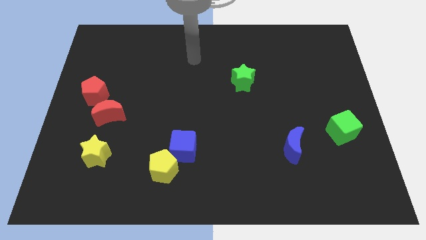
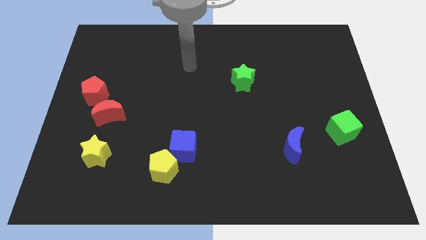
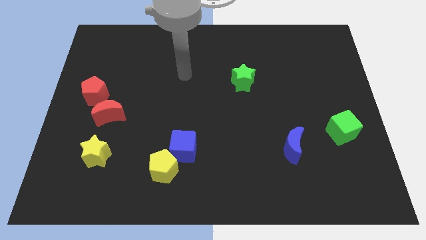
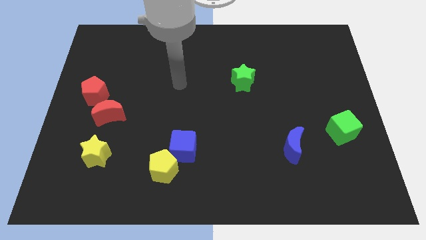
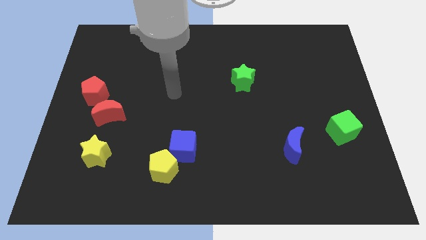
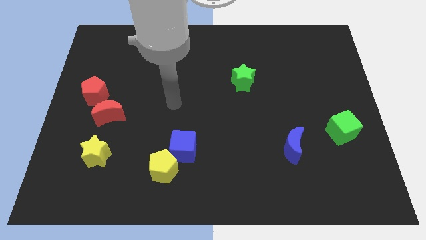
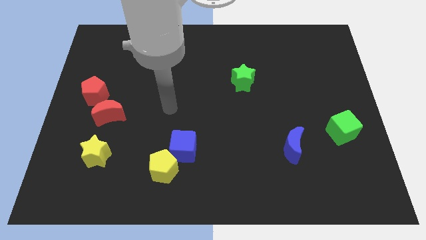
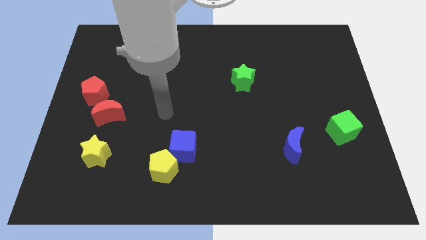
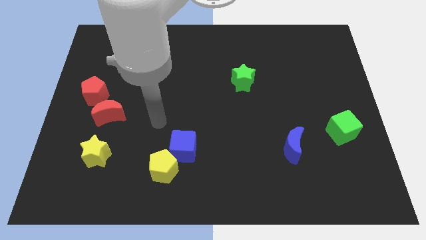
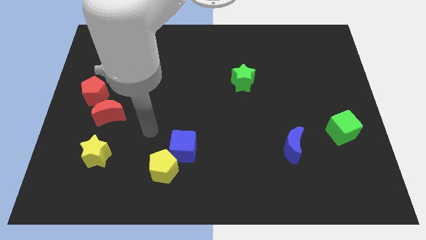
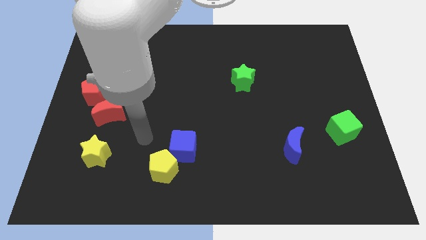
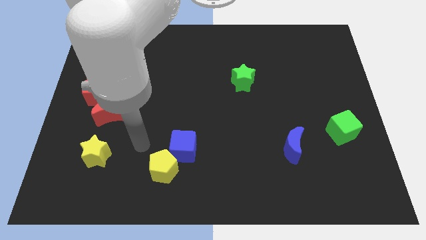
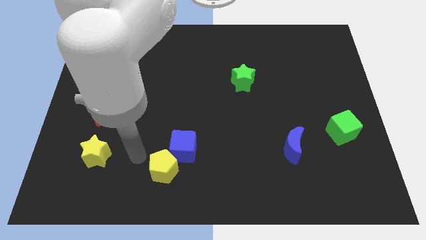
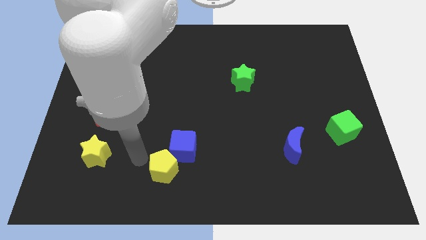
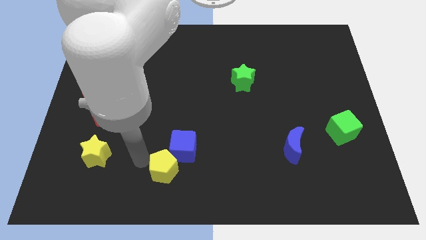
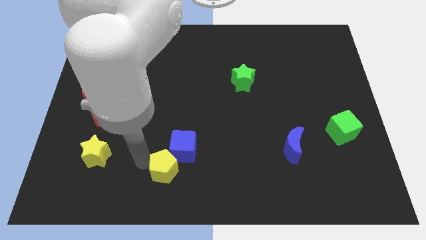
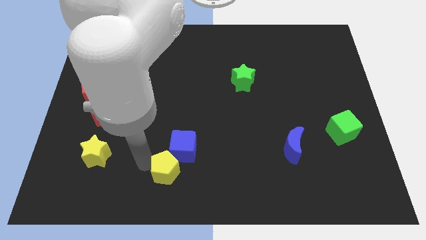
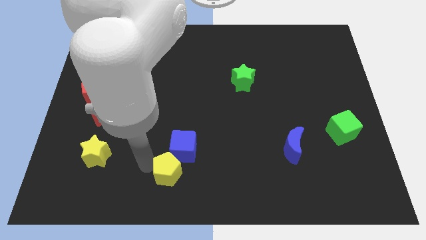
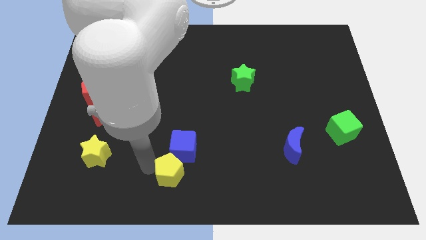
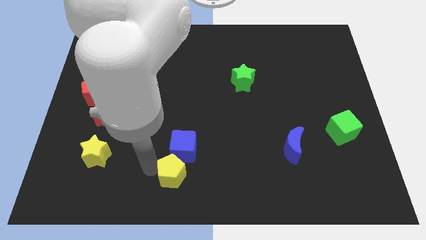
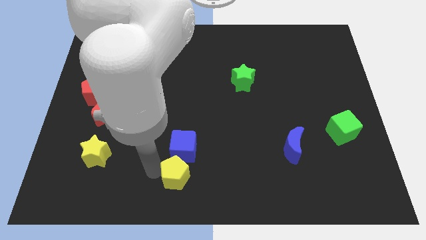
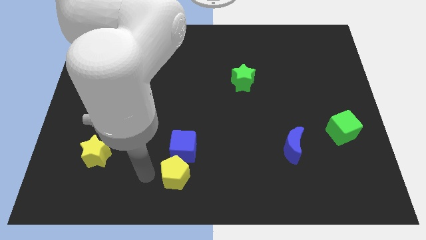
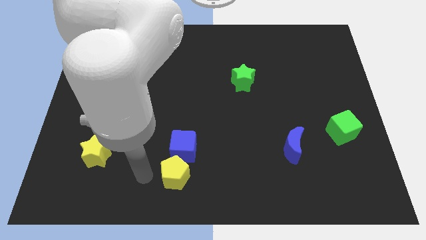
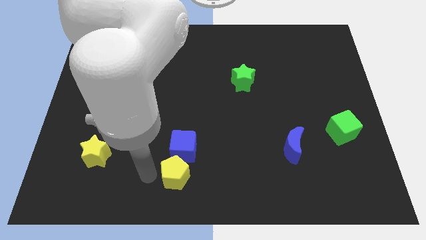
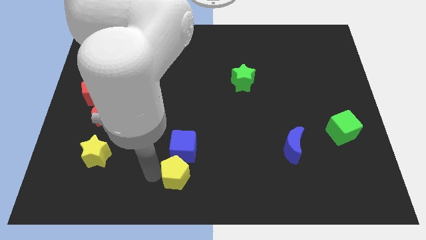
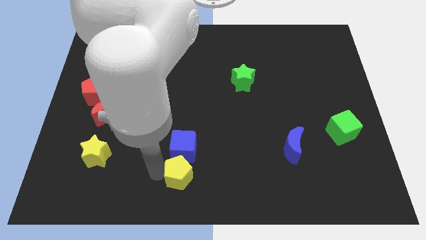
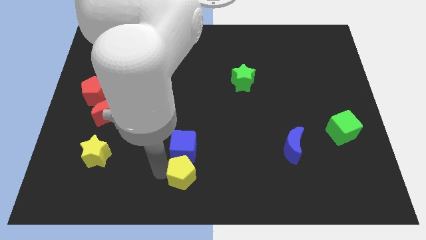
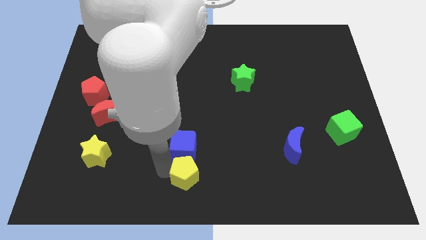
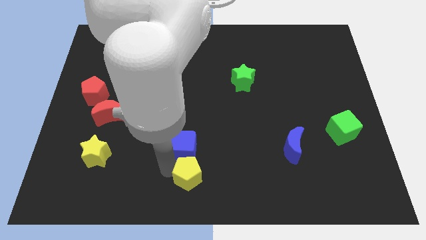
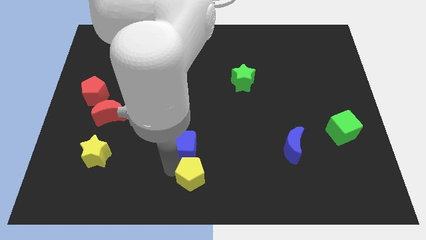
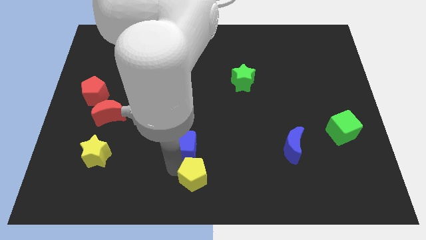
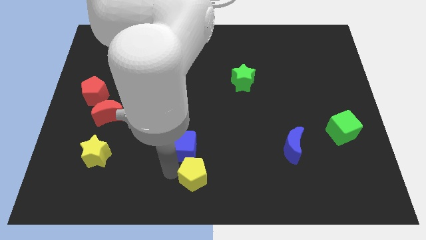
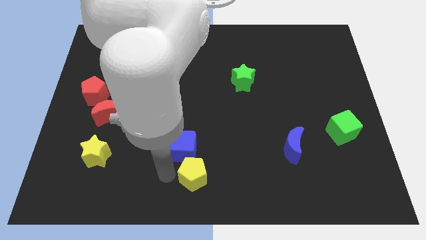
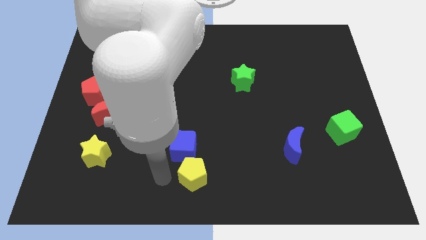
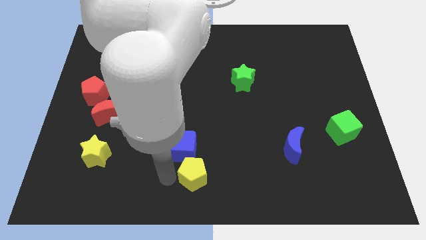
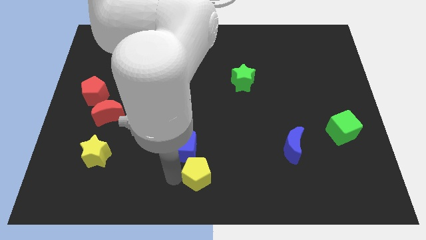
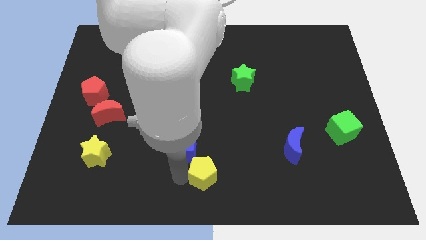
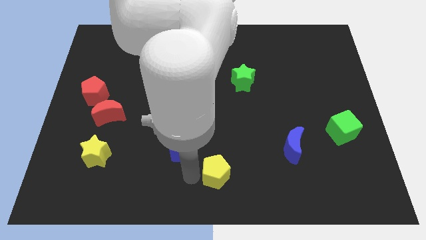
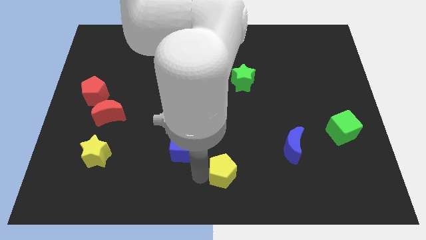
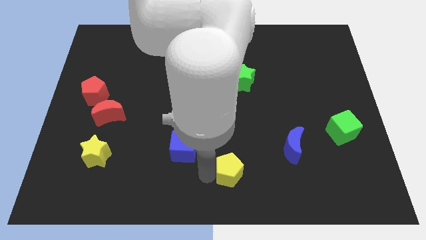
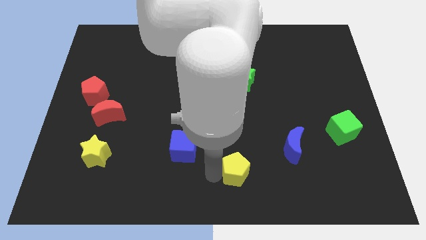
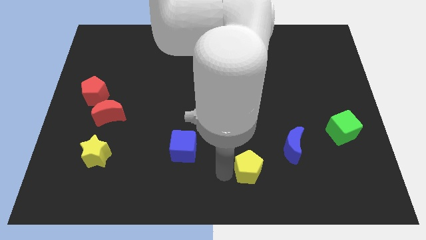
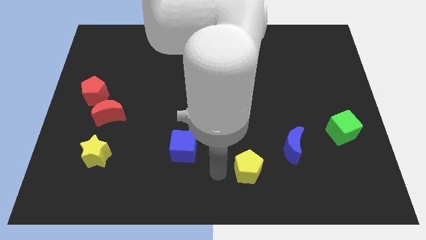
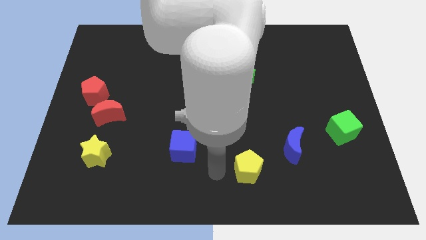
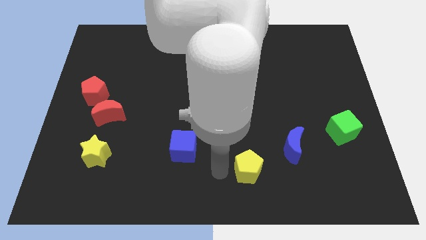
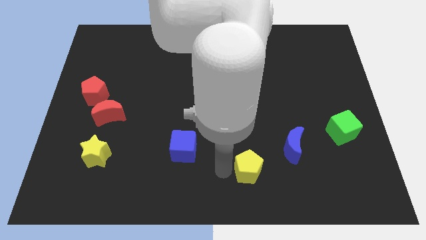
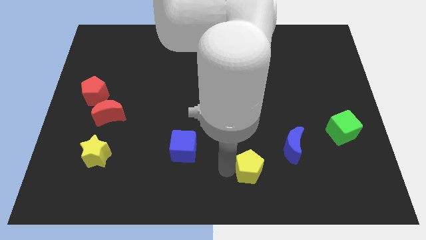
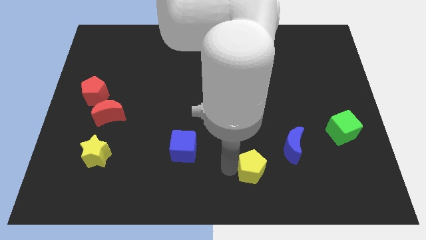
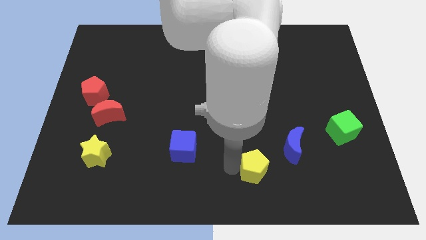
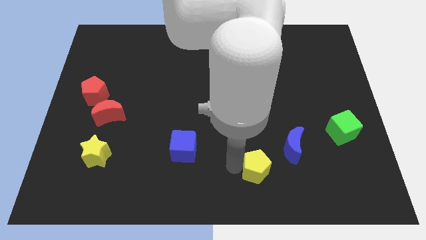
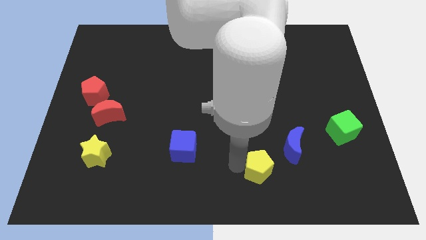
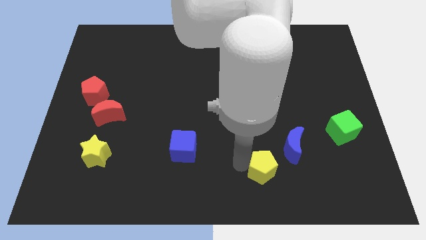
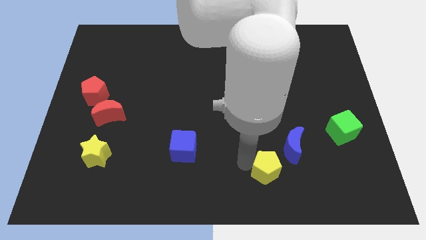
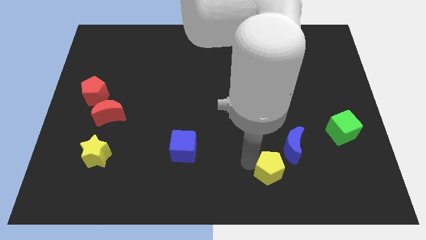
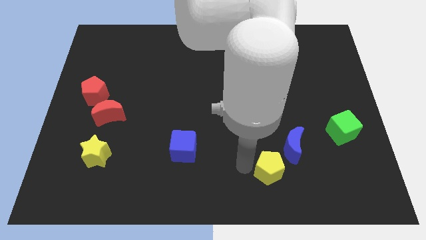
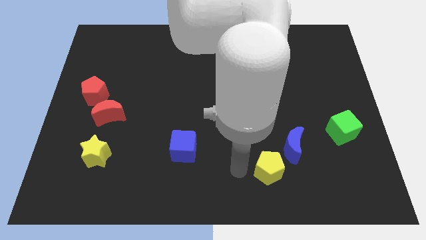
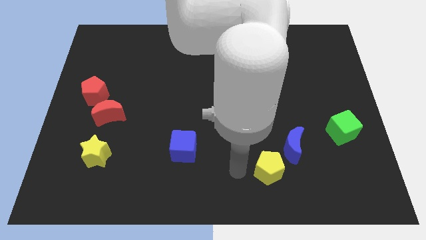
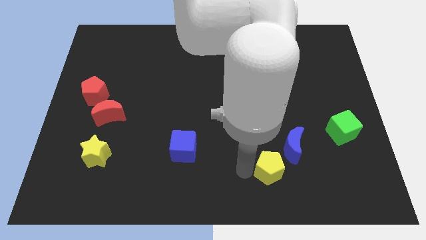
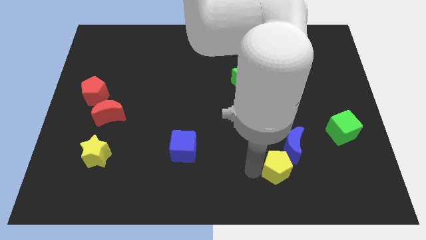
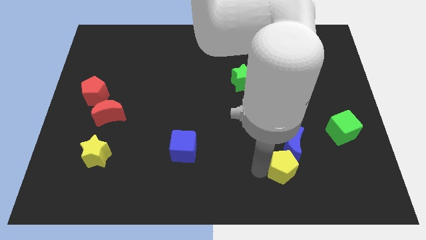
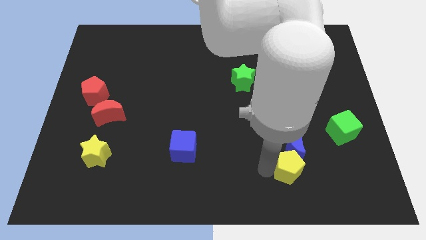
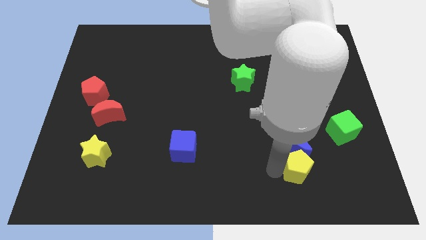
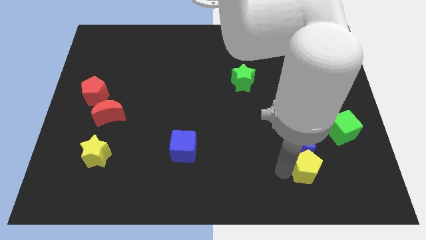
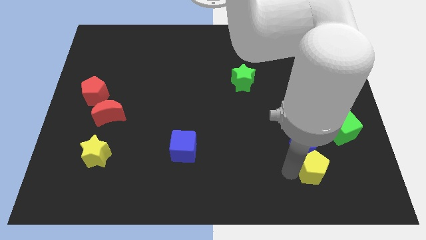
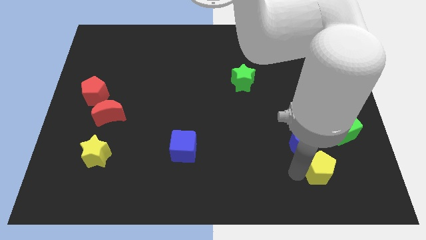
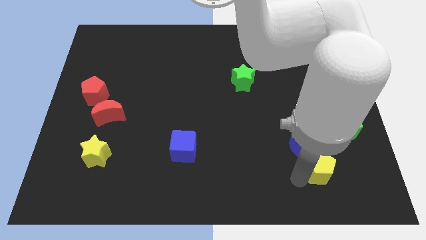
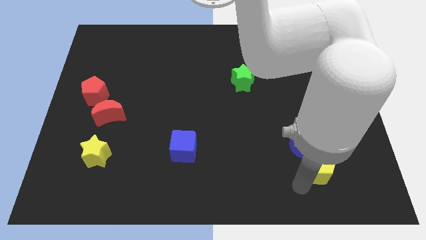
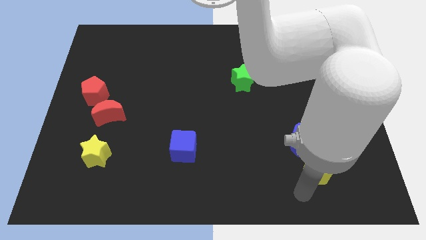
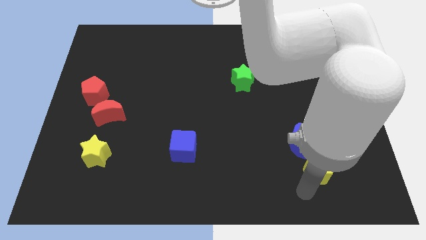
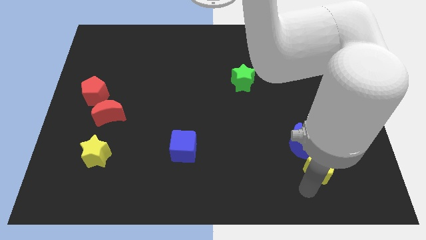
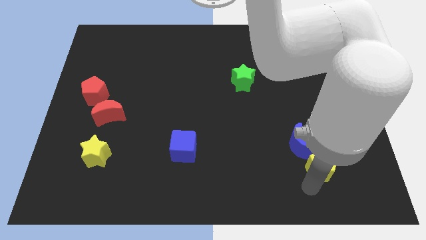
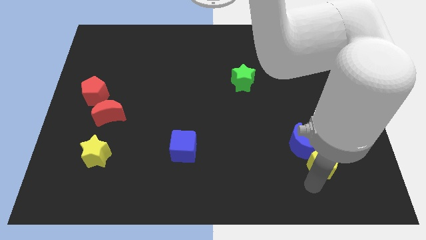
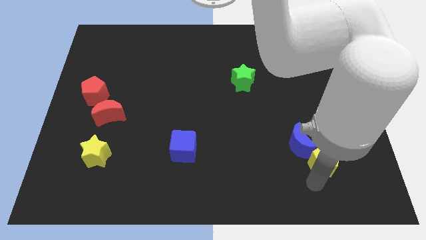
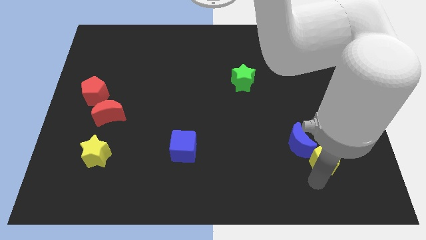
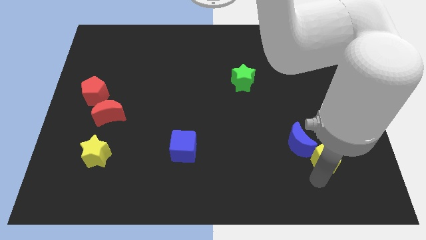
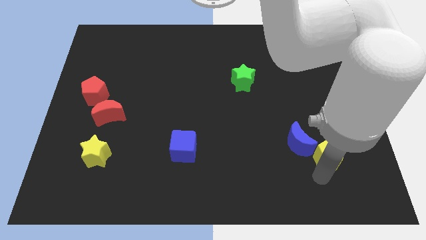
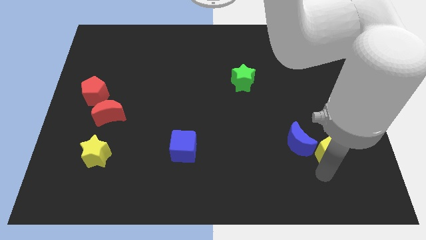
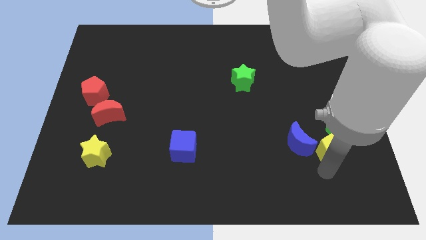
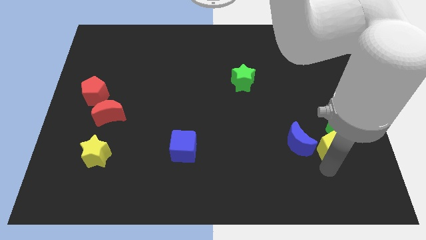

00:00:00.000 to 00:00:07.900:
put the yellow pentagon towards the green cube
